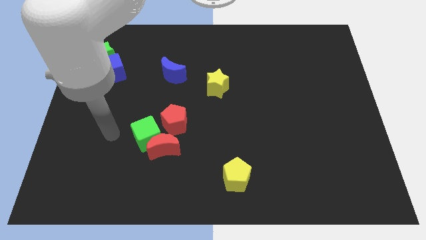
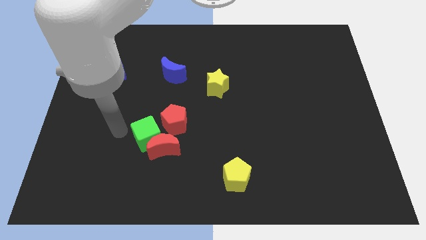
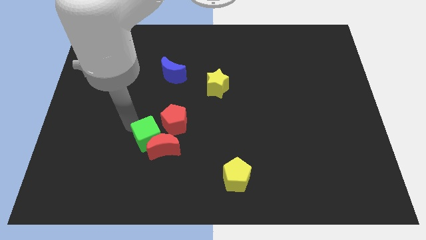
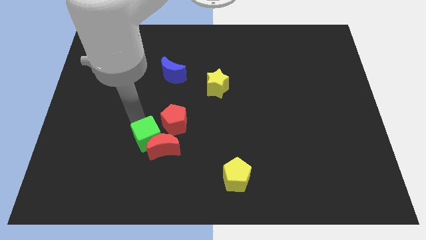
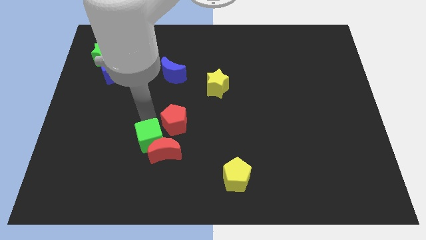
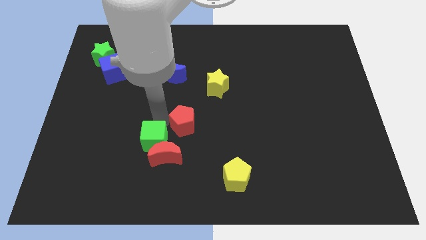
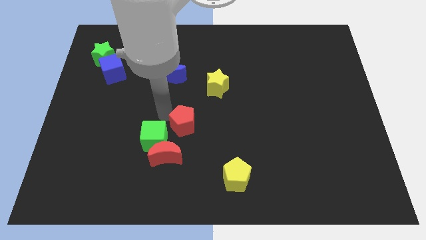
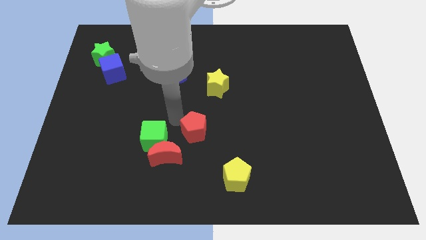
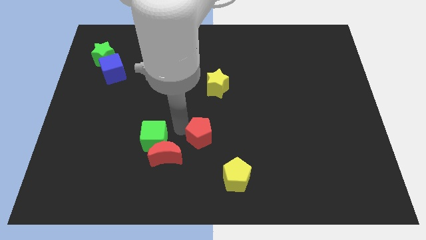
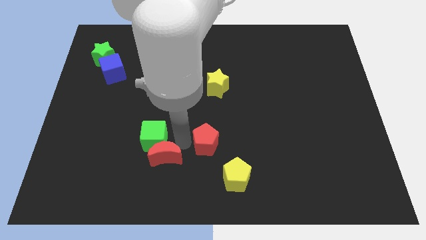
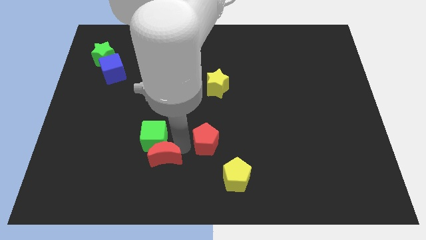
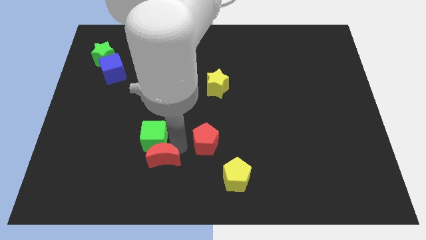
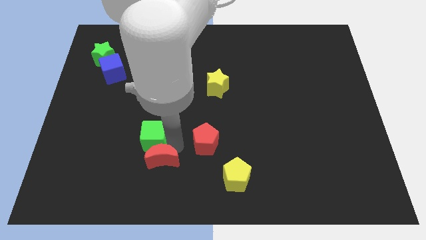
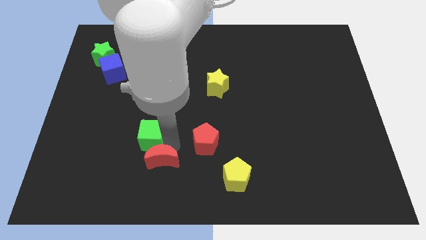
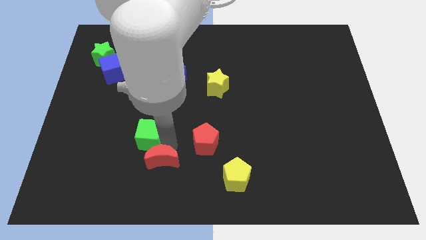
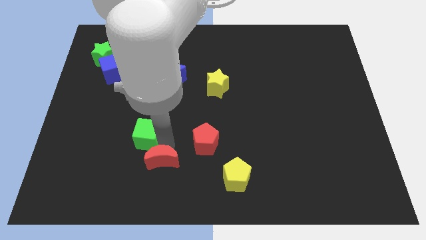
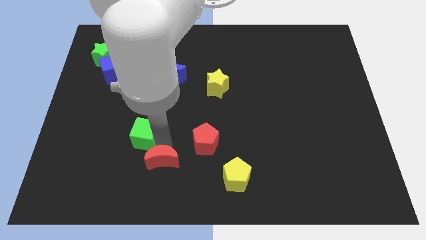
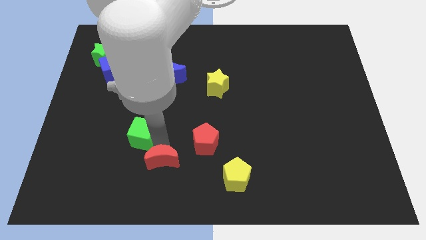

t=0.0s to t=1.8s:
separate the green cube from the red moon and red pentagon

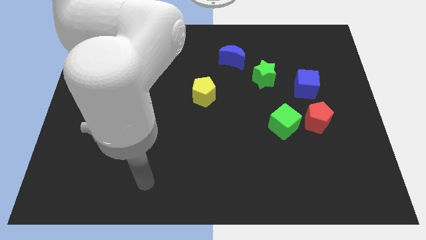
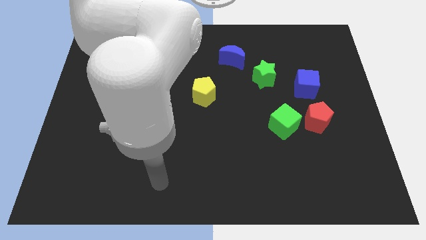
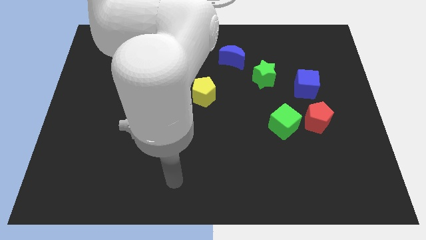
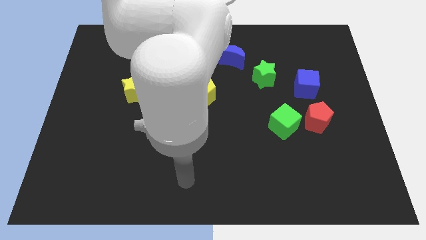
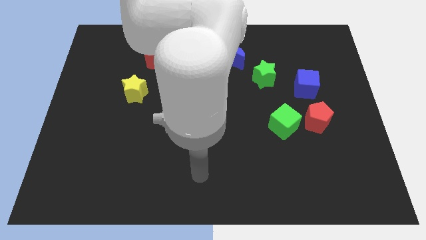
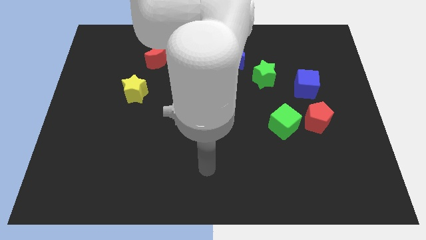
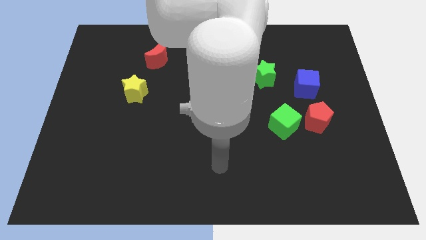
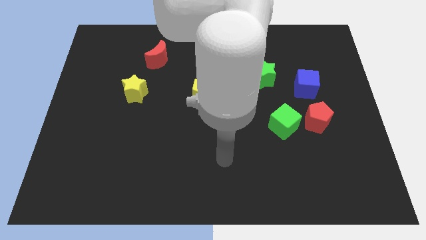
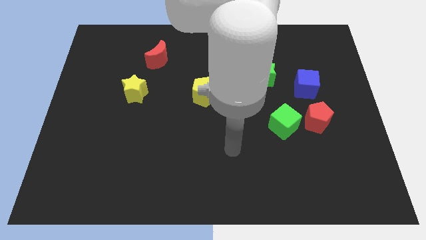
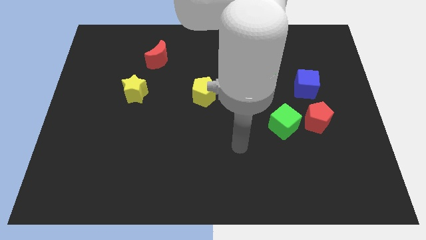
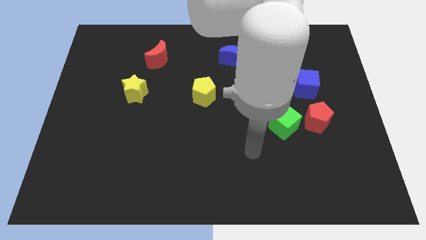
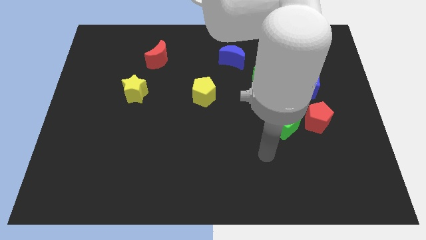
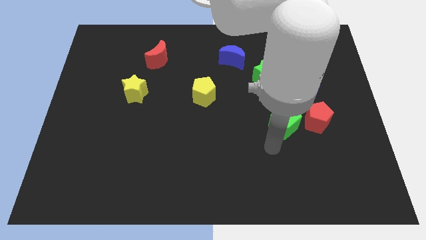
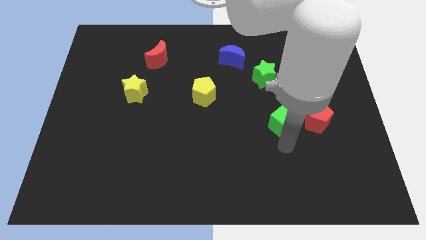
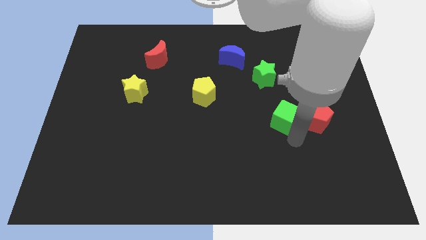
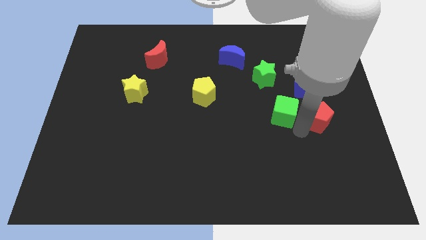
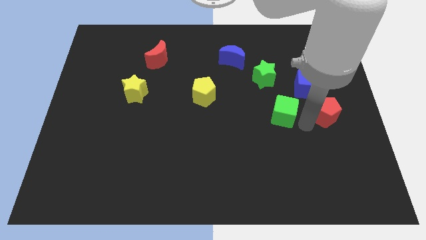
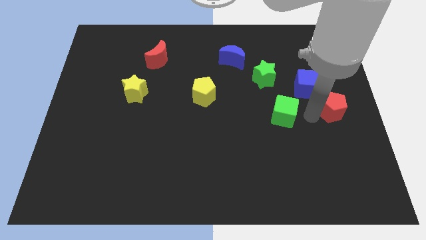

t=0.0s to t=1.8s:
move the green cube away from the red pentagon

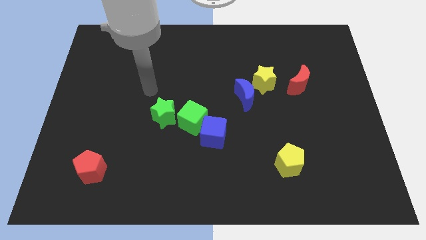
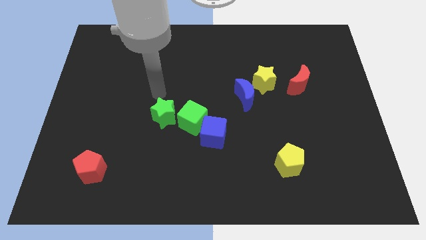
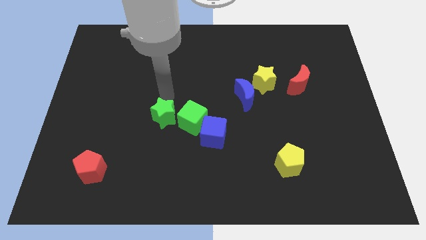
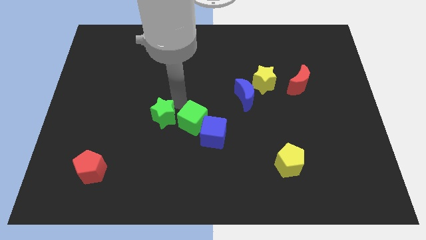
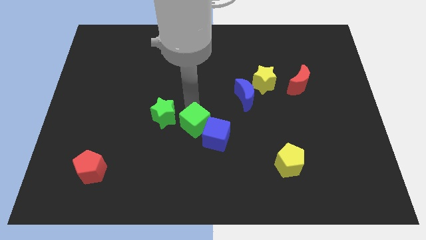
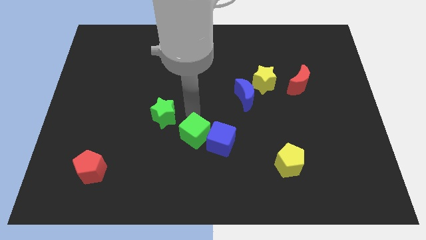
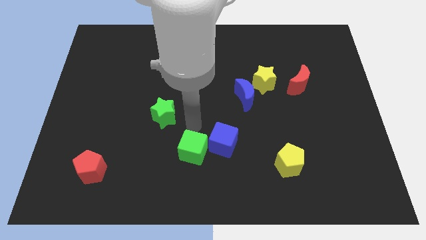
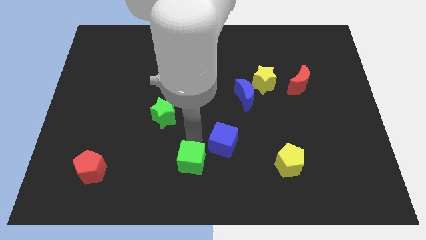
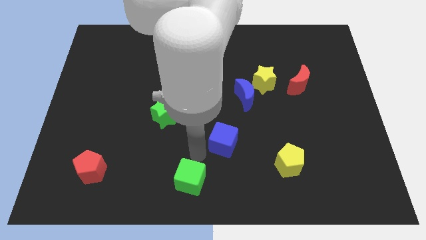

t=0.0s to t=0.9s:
separate the blue cube from the green cube

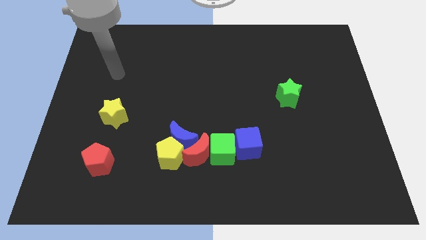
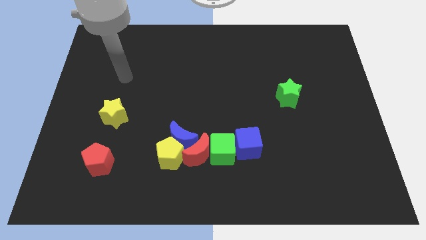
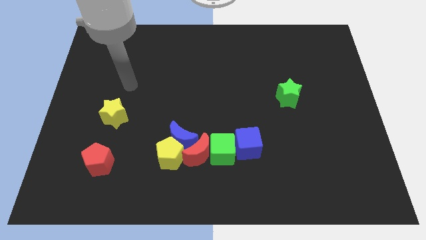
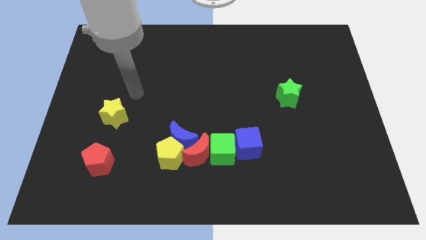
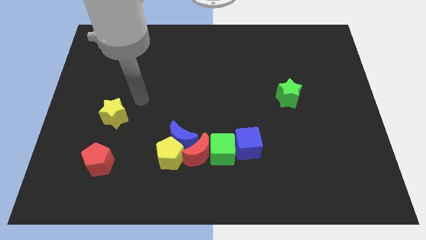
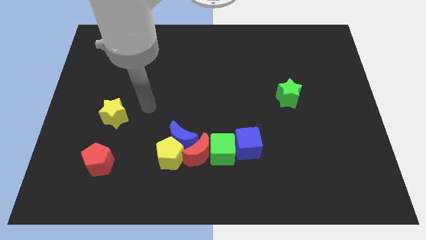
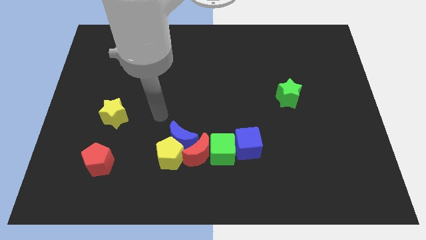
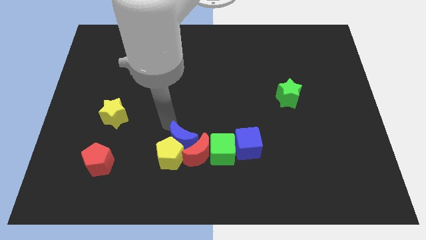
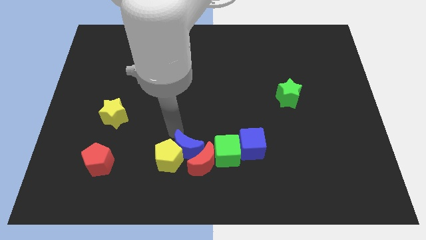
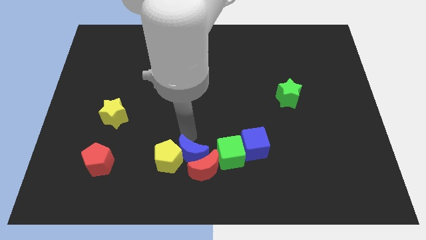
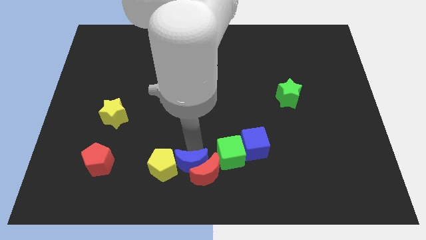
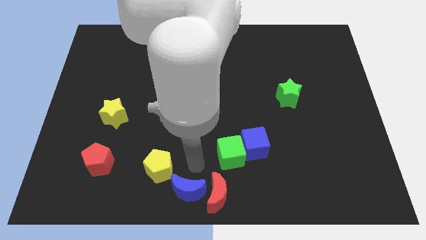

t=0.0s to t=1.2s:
separate the yellow pentagon from the blue moon and red moon

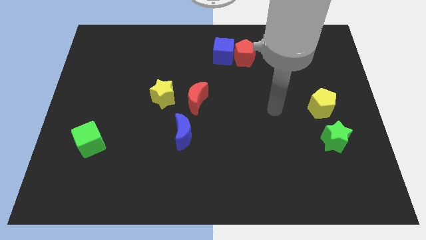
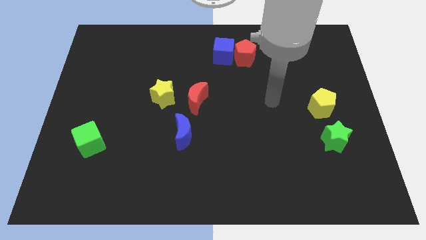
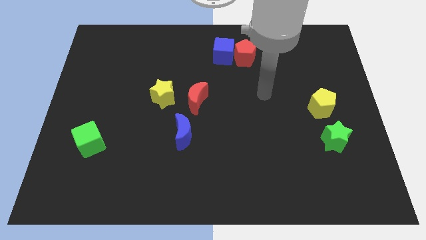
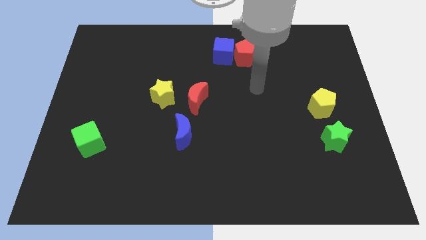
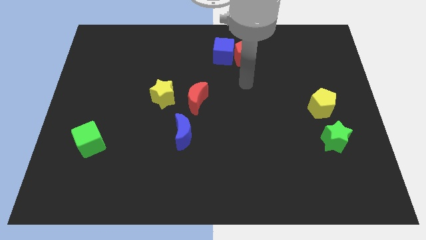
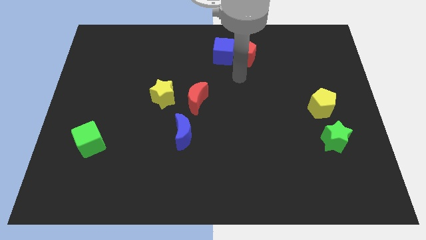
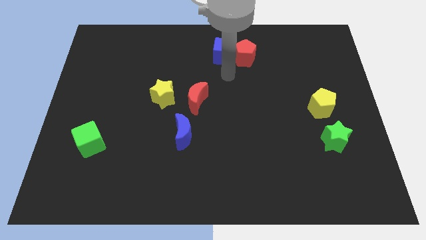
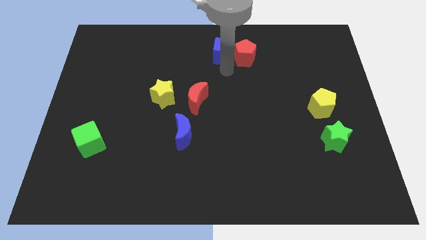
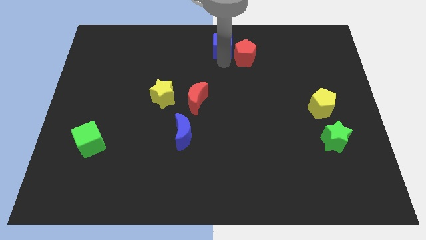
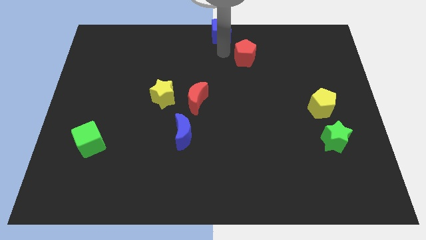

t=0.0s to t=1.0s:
pull the red pentagon apart from the blue cube

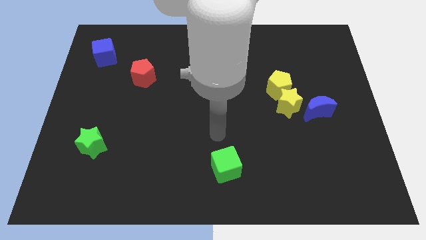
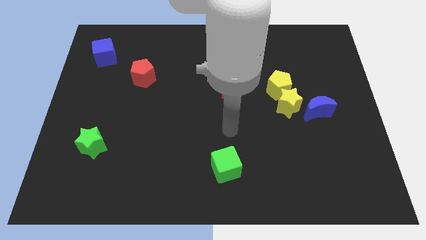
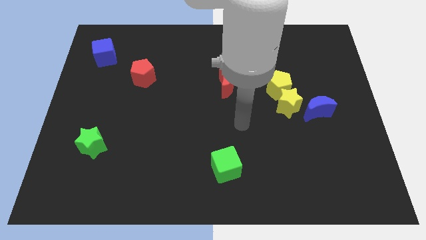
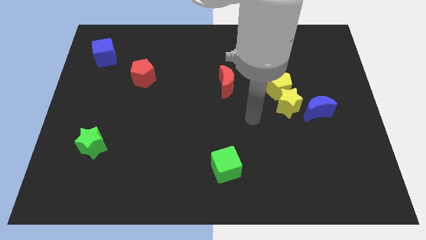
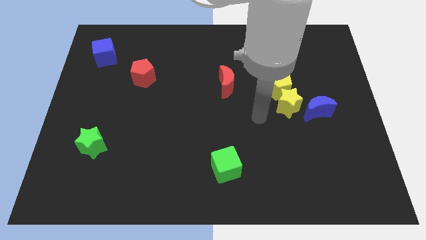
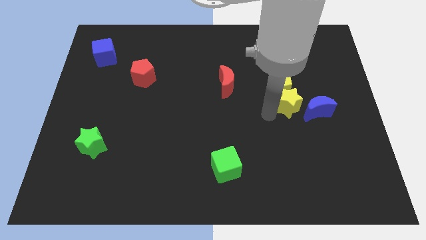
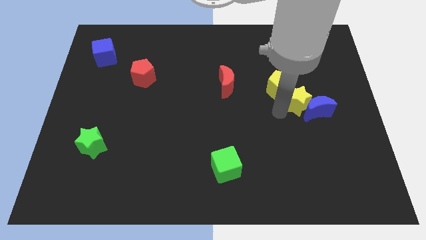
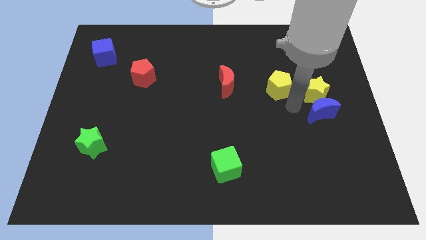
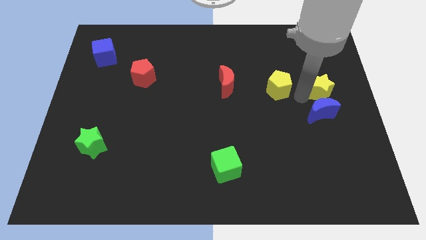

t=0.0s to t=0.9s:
pull the yellow pentagon apart from the yellow star

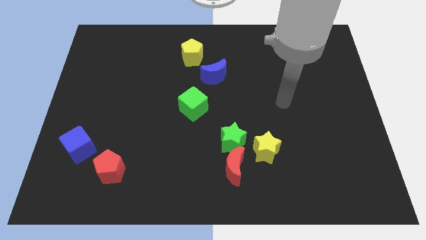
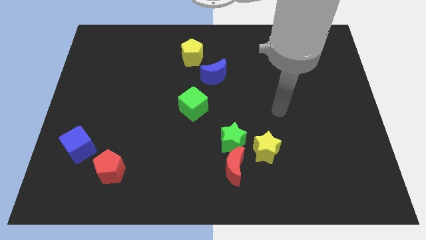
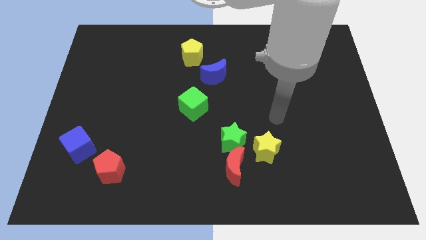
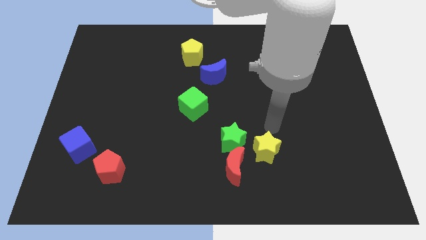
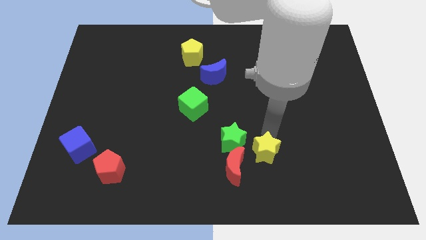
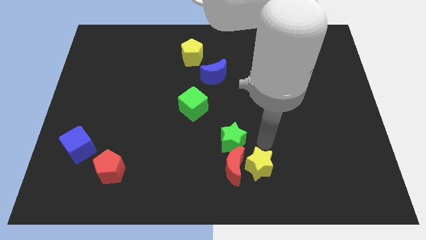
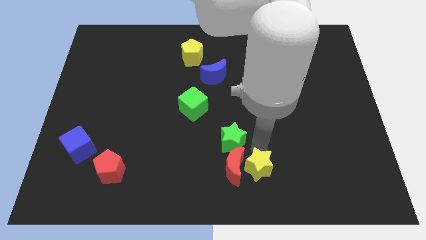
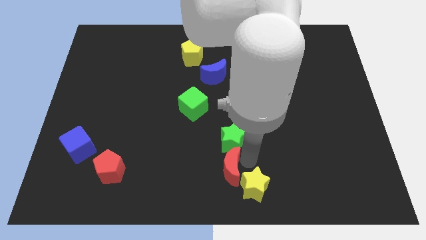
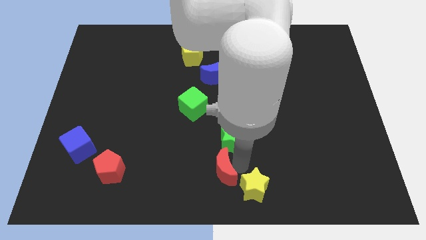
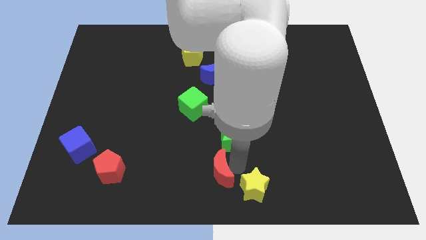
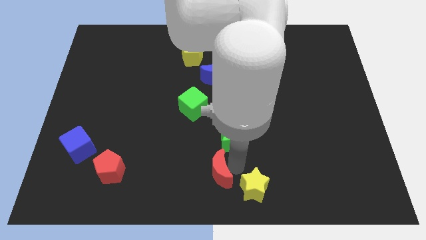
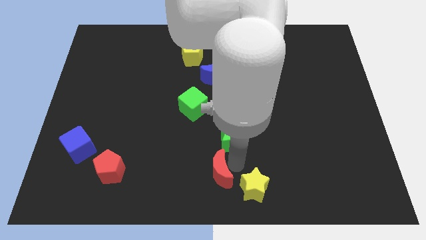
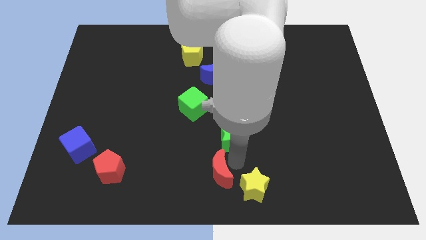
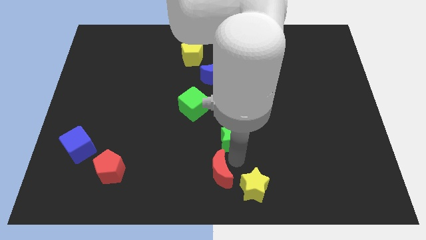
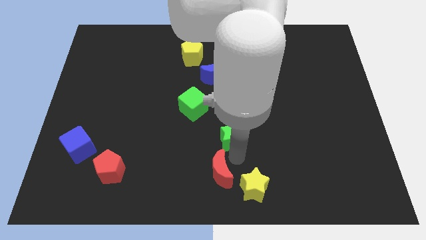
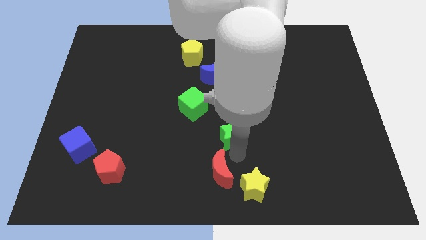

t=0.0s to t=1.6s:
move the green star away from the red moon and yellow star
